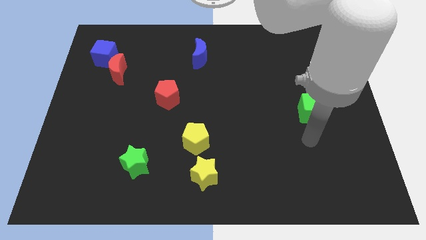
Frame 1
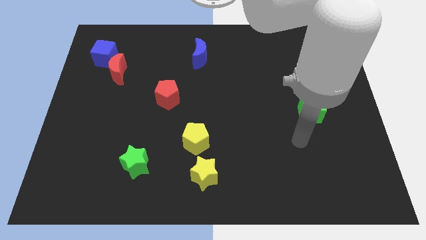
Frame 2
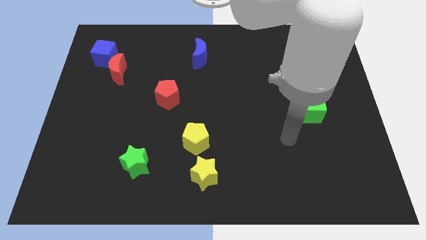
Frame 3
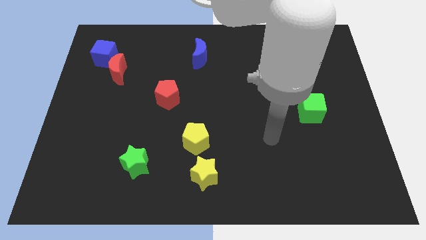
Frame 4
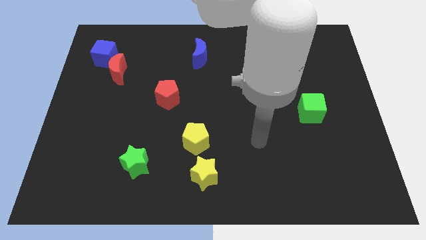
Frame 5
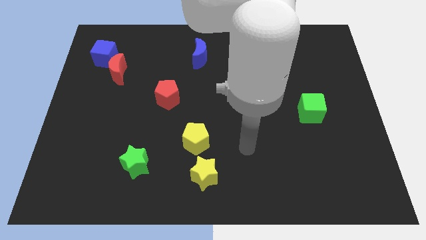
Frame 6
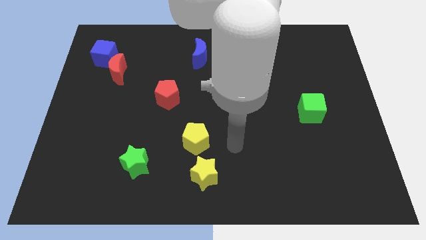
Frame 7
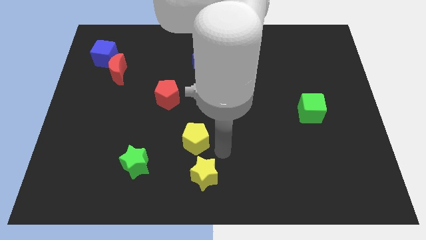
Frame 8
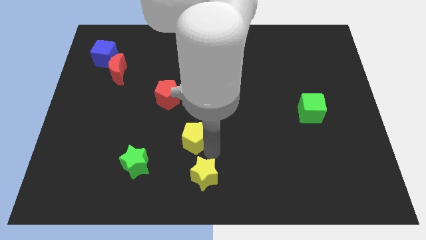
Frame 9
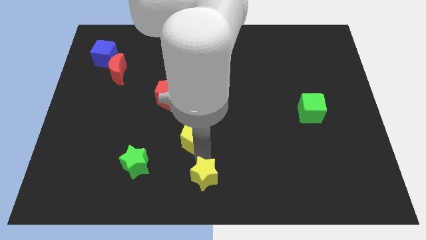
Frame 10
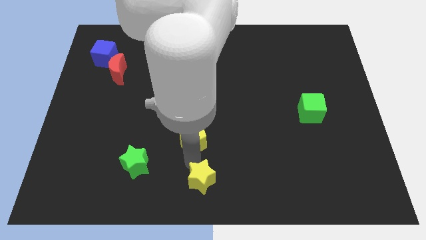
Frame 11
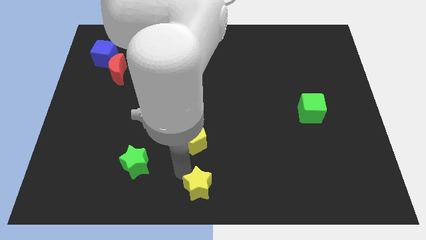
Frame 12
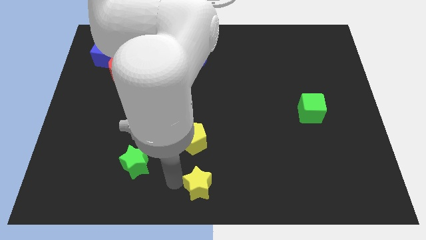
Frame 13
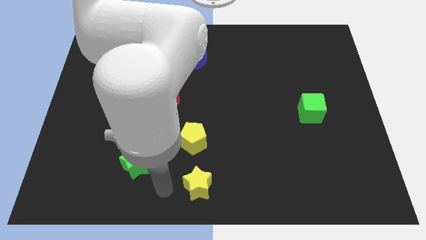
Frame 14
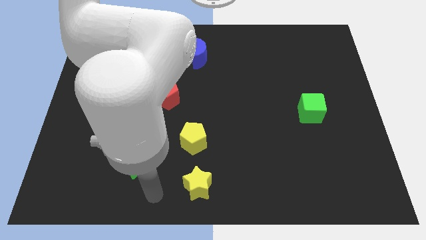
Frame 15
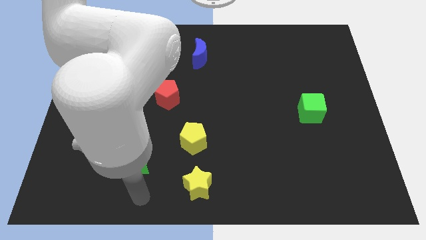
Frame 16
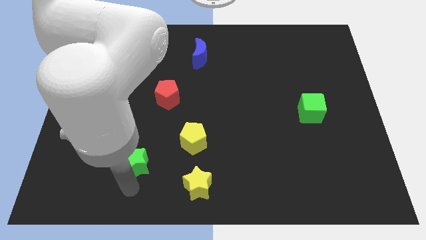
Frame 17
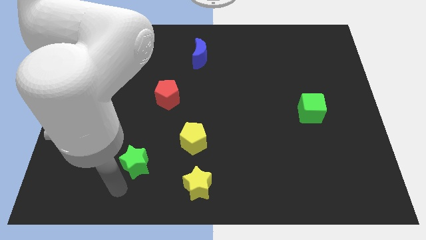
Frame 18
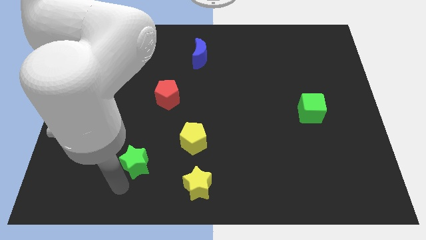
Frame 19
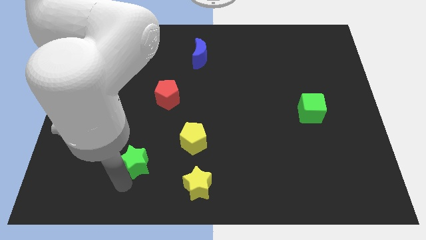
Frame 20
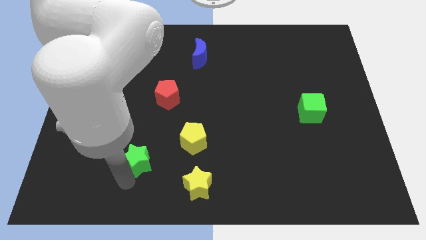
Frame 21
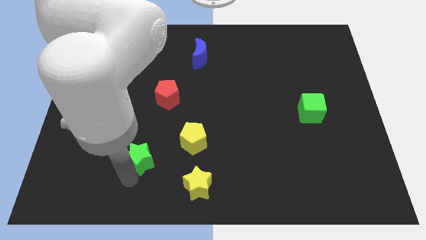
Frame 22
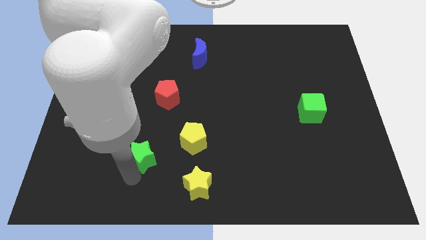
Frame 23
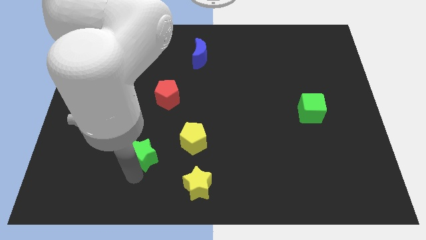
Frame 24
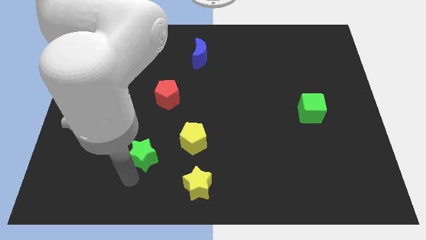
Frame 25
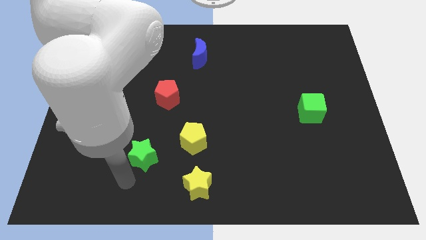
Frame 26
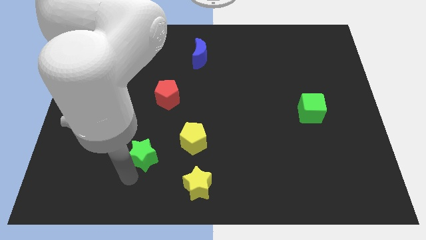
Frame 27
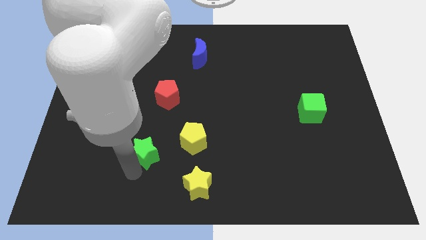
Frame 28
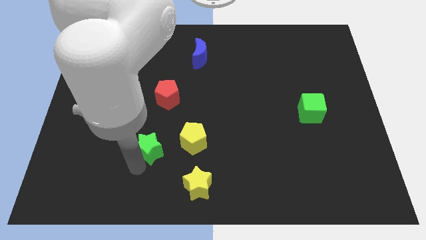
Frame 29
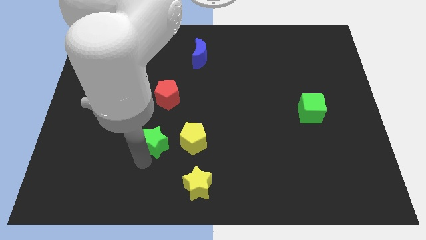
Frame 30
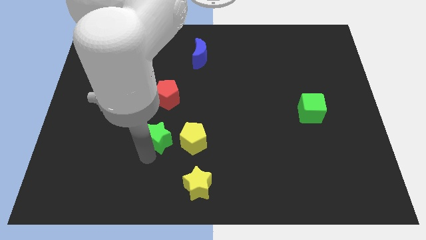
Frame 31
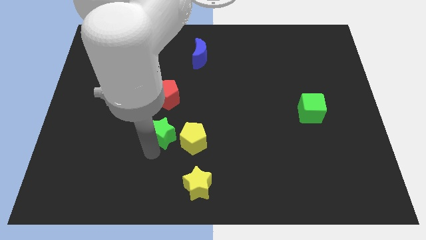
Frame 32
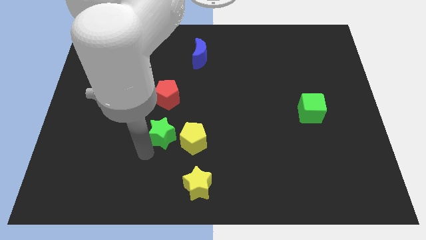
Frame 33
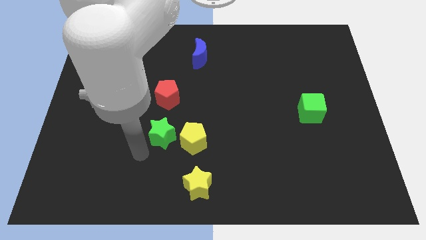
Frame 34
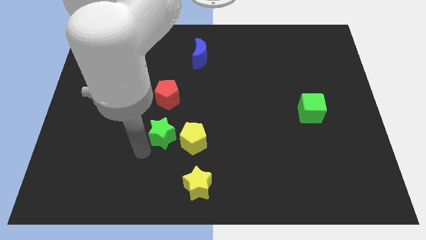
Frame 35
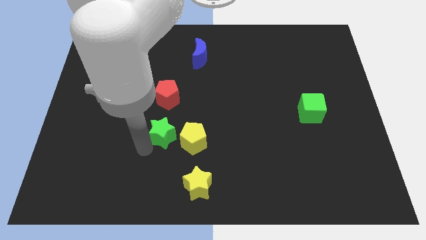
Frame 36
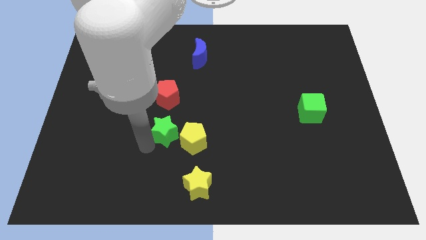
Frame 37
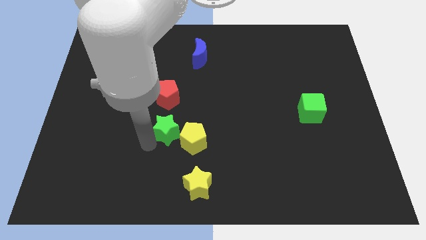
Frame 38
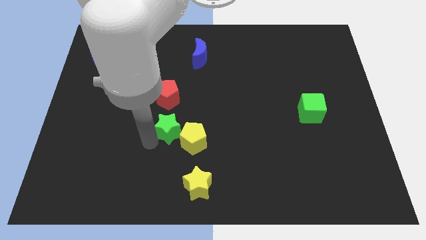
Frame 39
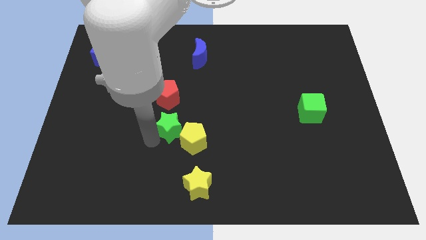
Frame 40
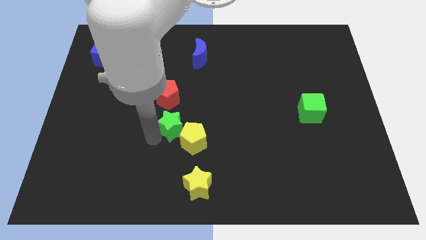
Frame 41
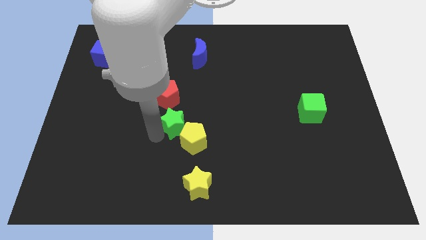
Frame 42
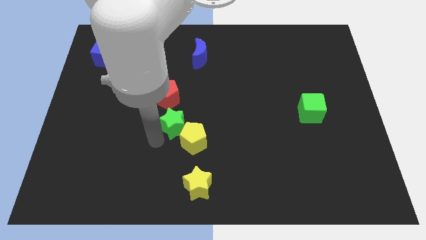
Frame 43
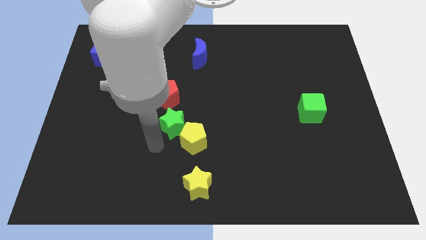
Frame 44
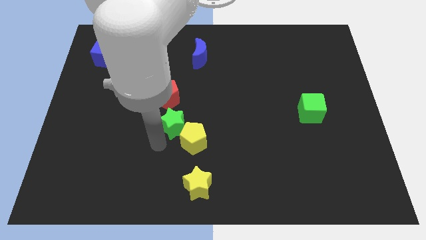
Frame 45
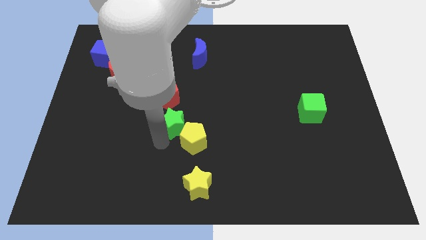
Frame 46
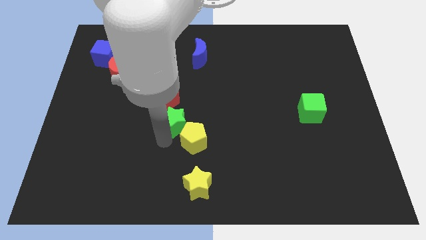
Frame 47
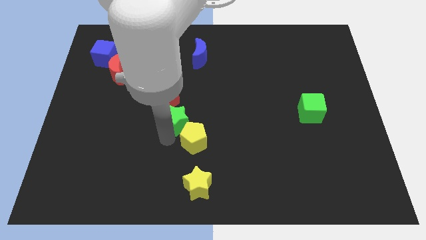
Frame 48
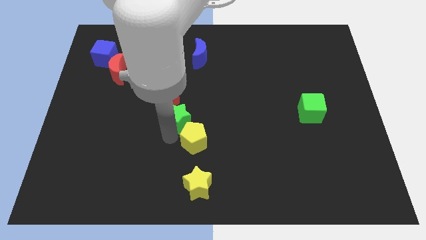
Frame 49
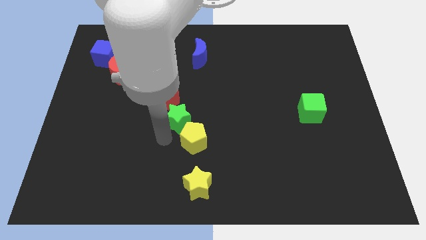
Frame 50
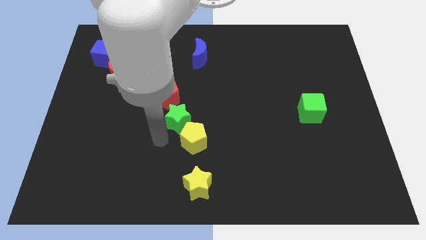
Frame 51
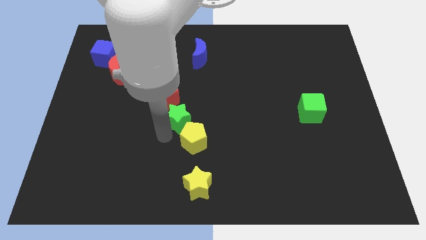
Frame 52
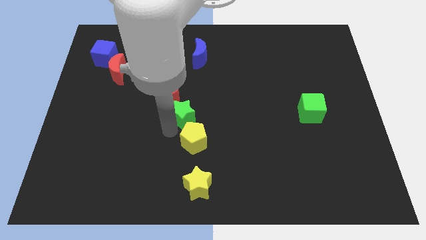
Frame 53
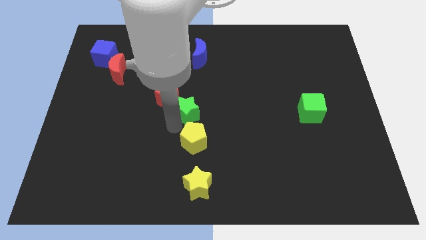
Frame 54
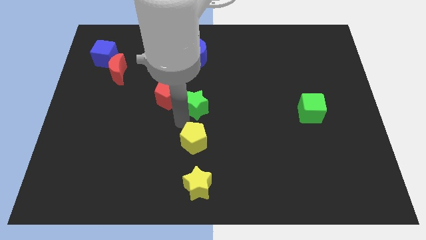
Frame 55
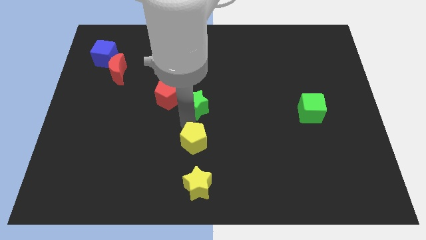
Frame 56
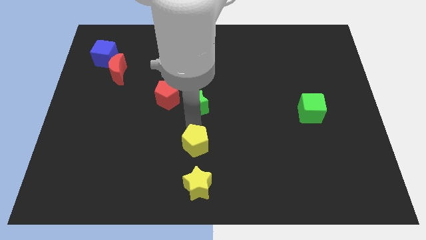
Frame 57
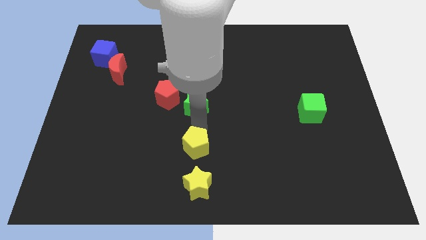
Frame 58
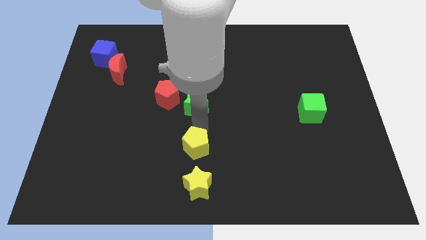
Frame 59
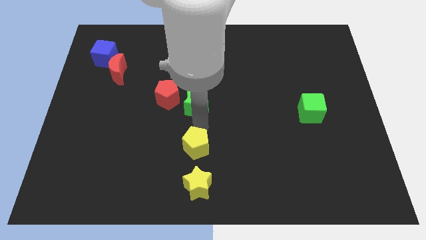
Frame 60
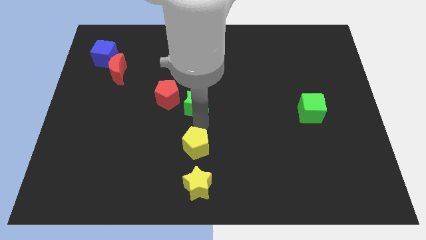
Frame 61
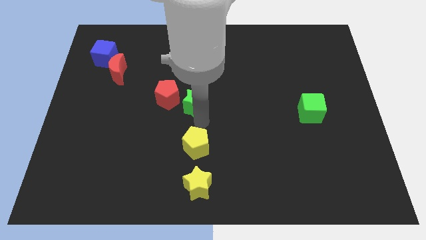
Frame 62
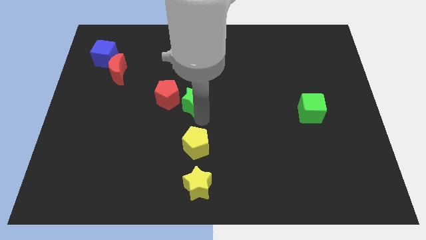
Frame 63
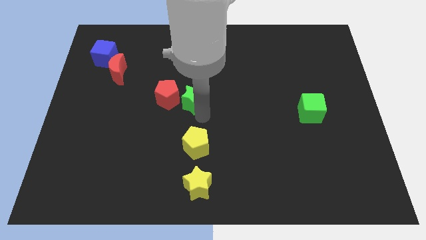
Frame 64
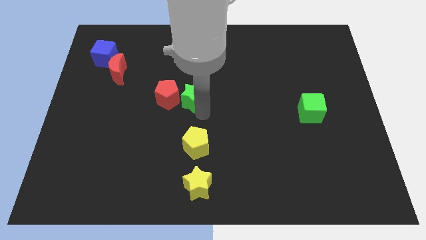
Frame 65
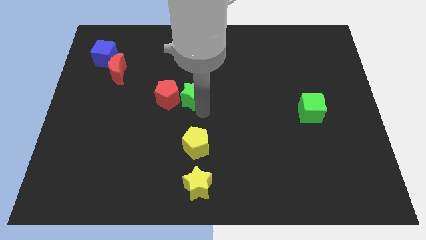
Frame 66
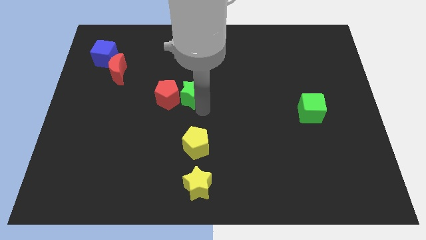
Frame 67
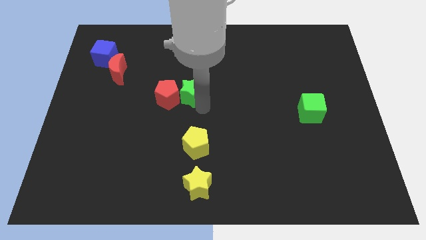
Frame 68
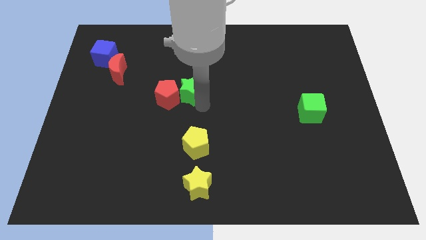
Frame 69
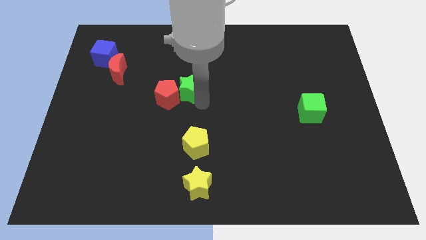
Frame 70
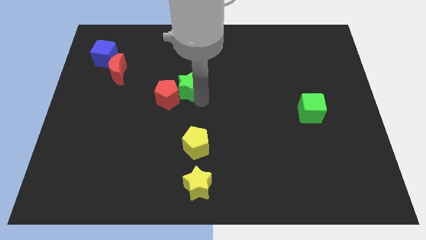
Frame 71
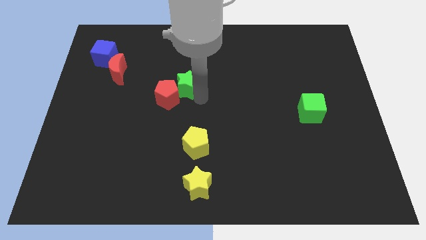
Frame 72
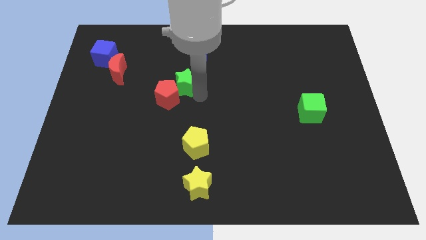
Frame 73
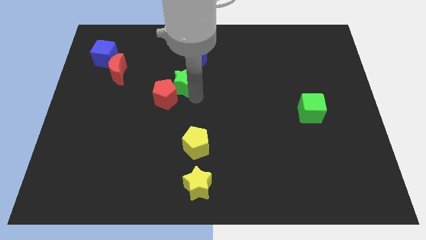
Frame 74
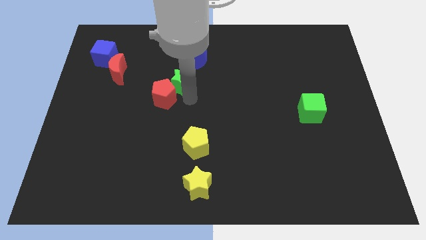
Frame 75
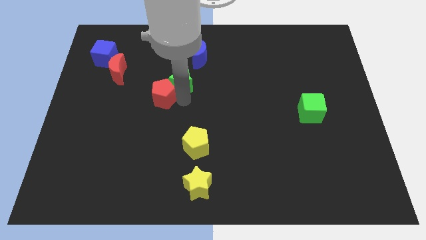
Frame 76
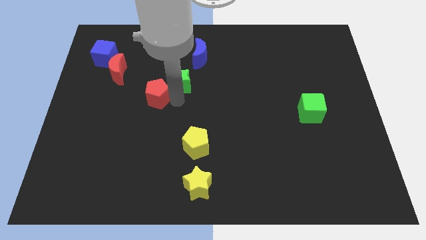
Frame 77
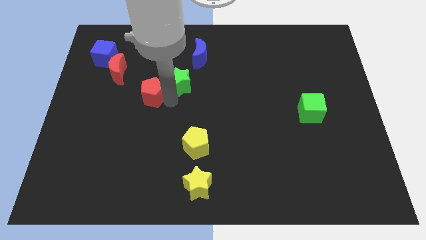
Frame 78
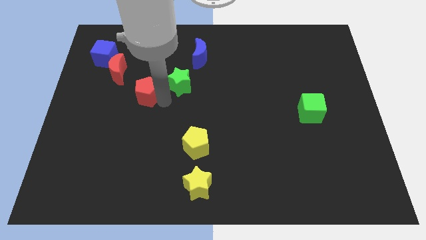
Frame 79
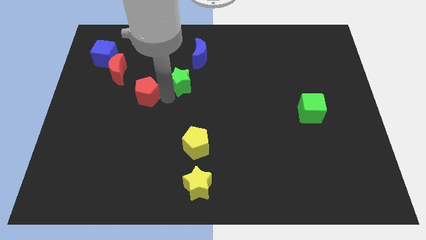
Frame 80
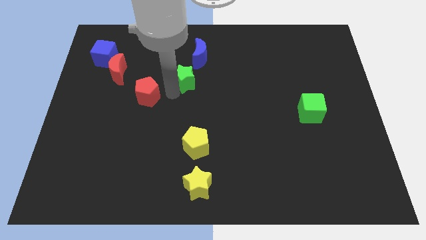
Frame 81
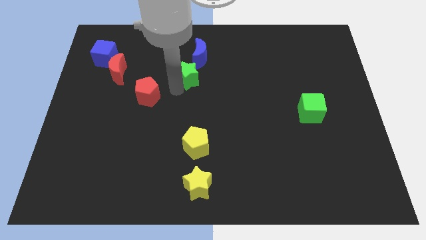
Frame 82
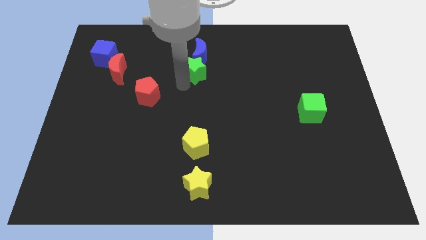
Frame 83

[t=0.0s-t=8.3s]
slide the green star next to the blue moon
